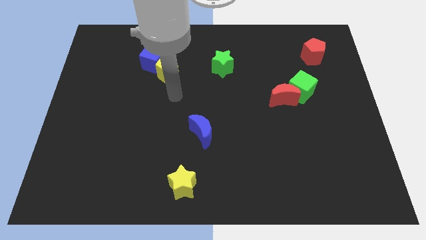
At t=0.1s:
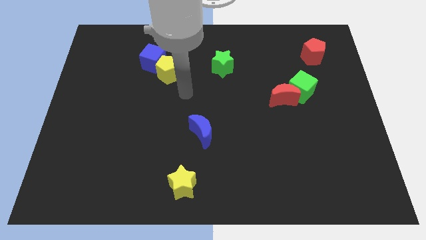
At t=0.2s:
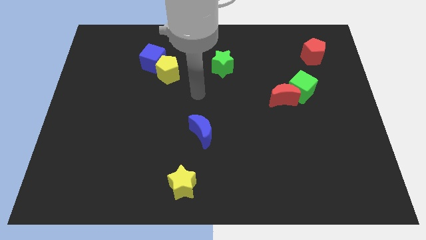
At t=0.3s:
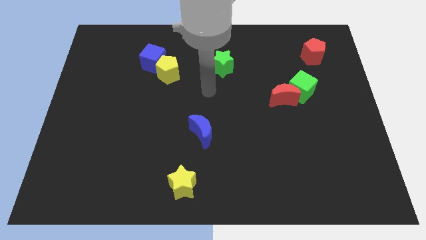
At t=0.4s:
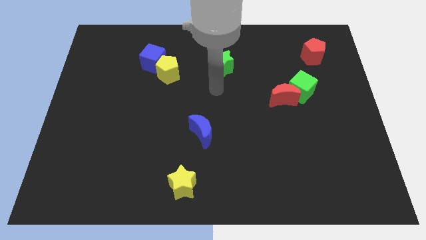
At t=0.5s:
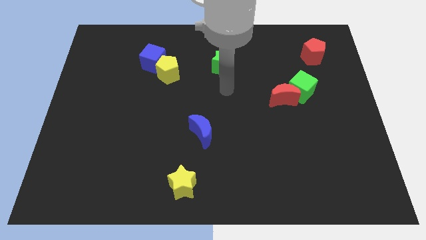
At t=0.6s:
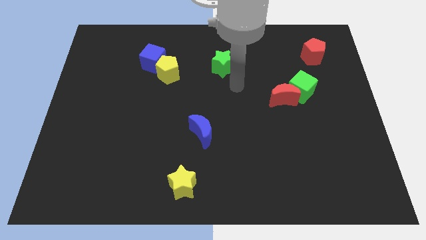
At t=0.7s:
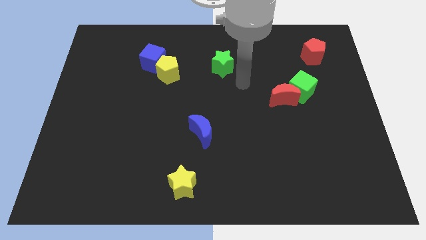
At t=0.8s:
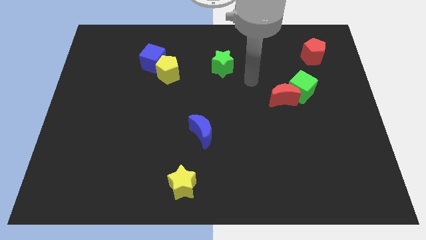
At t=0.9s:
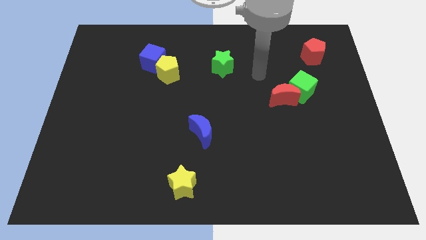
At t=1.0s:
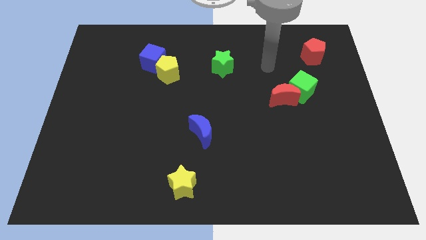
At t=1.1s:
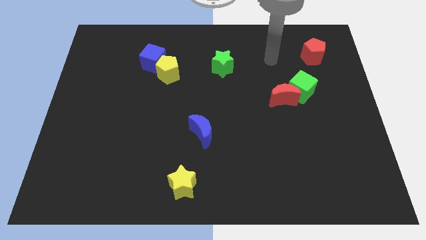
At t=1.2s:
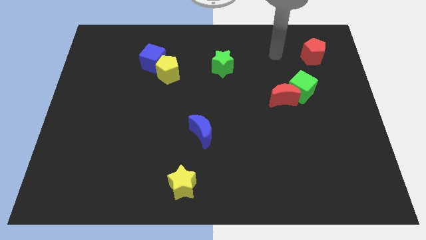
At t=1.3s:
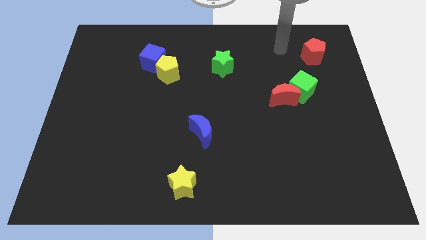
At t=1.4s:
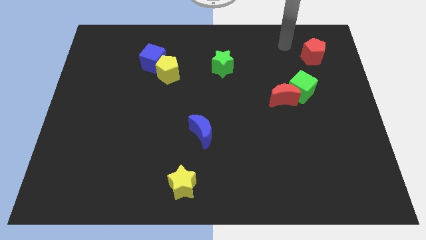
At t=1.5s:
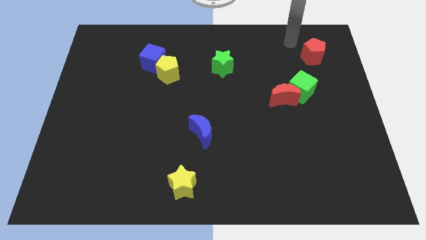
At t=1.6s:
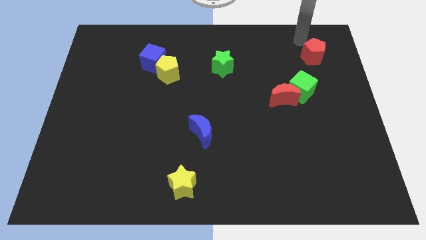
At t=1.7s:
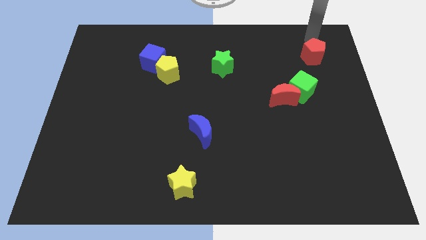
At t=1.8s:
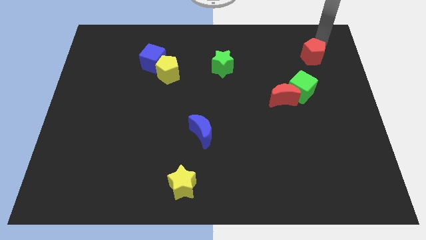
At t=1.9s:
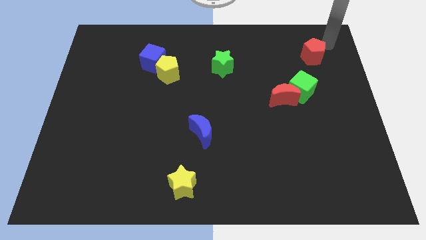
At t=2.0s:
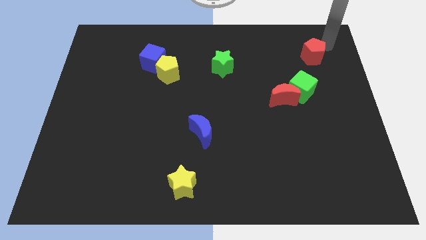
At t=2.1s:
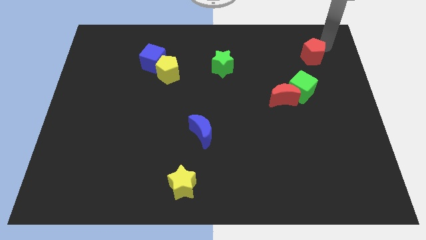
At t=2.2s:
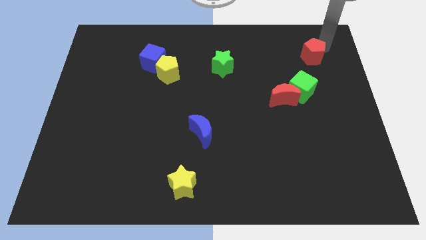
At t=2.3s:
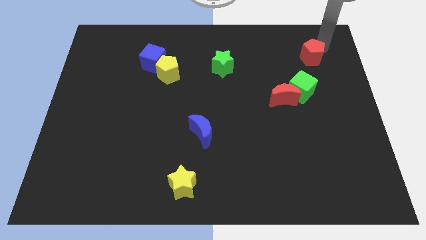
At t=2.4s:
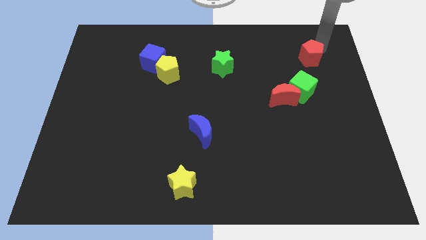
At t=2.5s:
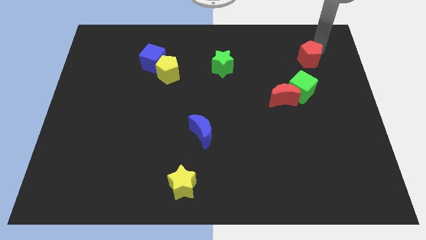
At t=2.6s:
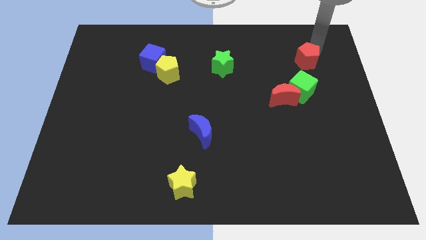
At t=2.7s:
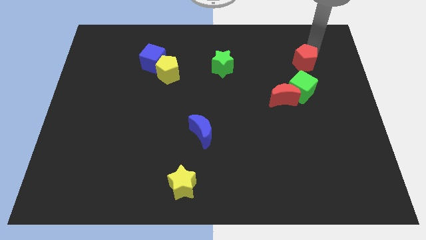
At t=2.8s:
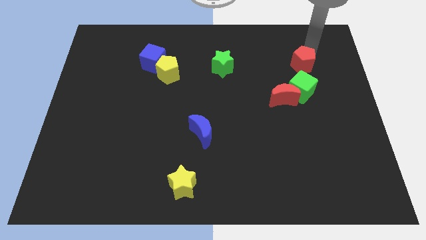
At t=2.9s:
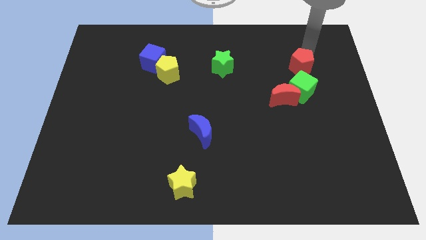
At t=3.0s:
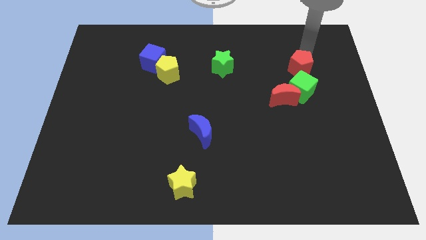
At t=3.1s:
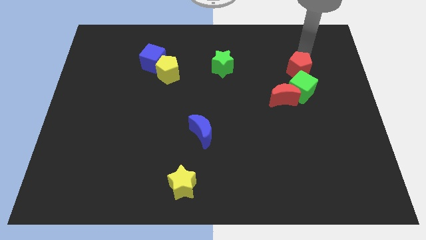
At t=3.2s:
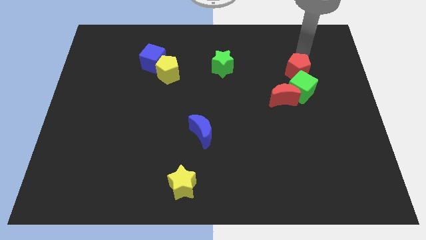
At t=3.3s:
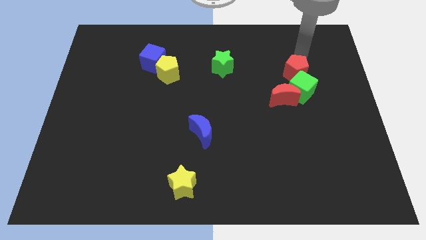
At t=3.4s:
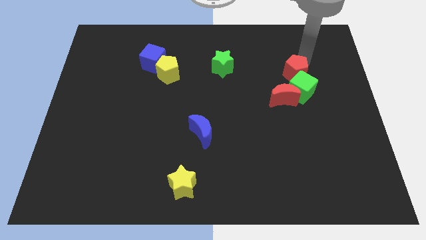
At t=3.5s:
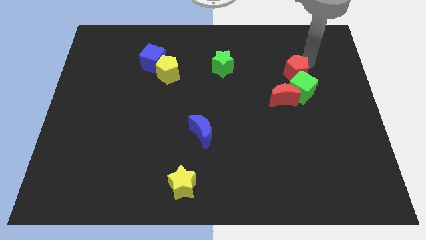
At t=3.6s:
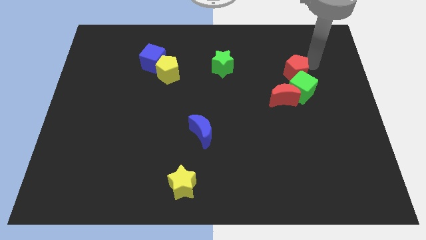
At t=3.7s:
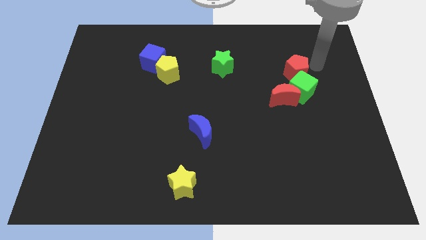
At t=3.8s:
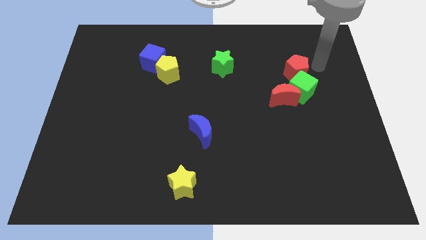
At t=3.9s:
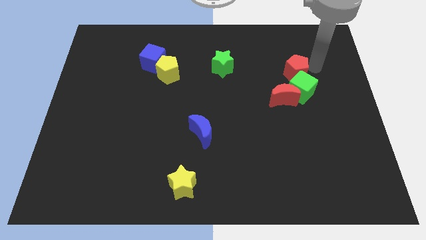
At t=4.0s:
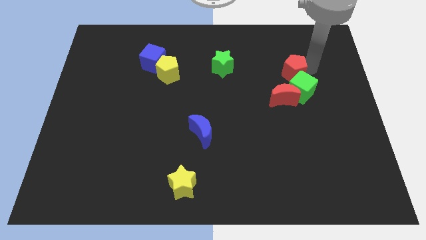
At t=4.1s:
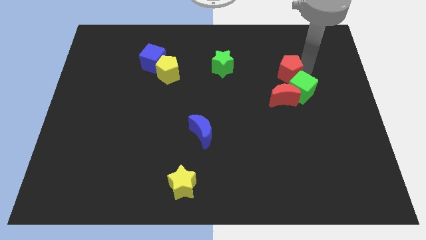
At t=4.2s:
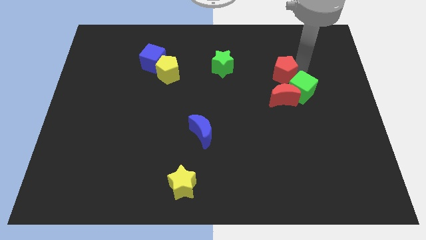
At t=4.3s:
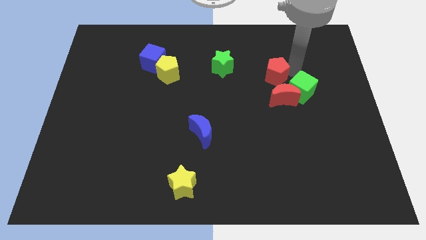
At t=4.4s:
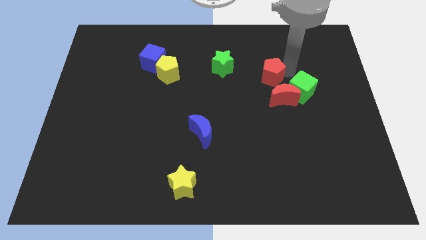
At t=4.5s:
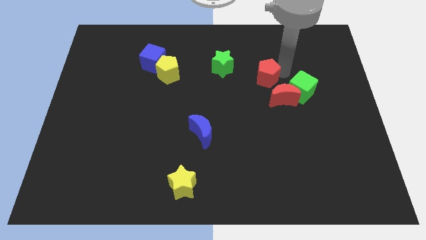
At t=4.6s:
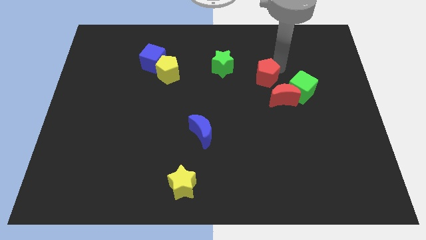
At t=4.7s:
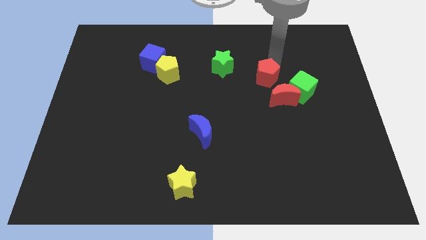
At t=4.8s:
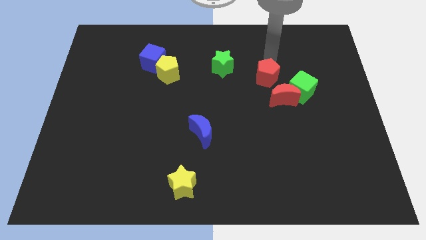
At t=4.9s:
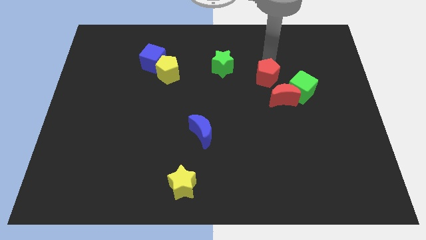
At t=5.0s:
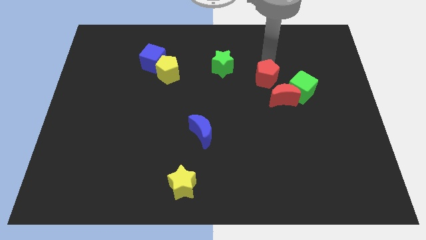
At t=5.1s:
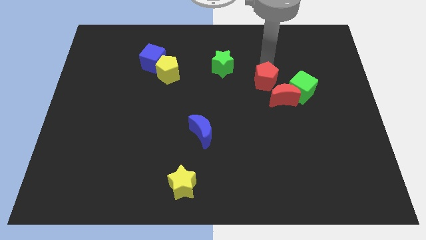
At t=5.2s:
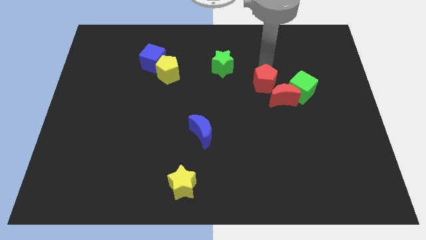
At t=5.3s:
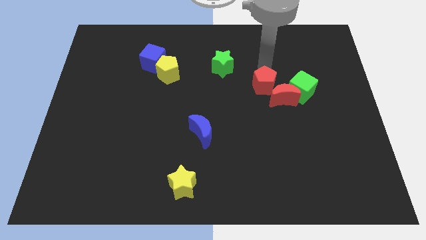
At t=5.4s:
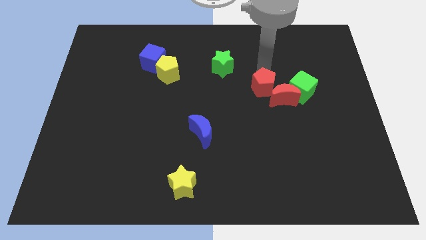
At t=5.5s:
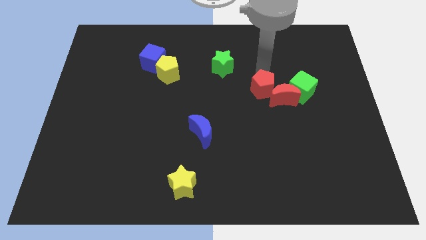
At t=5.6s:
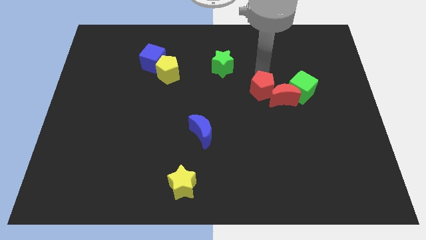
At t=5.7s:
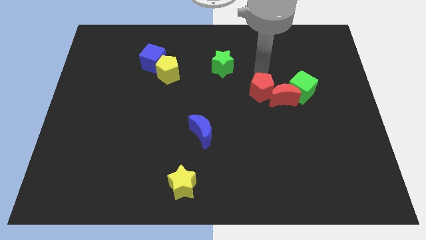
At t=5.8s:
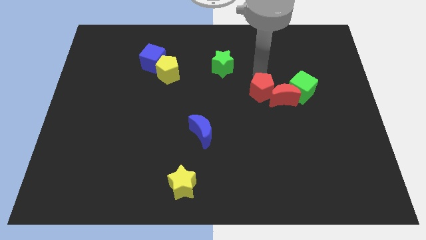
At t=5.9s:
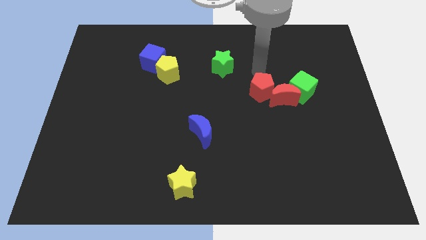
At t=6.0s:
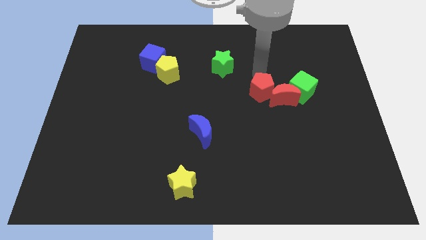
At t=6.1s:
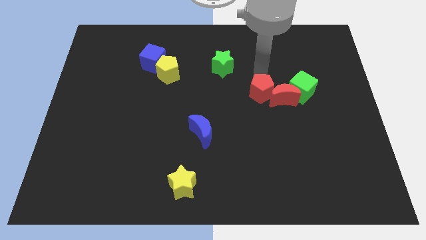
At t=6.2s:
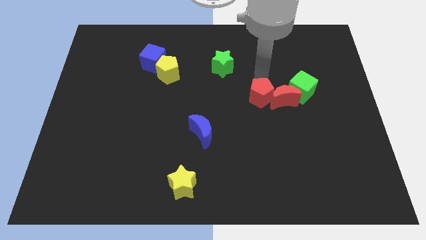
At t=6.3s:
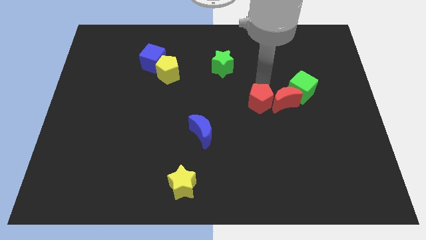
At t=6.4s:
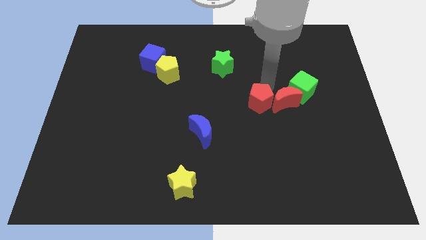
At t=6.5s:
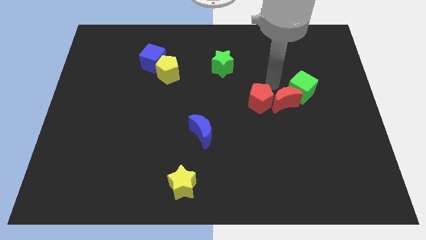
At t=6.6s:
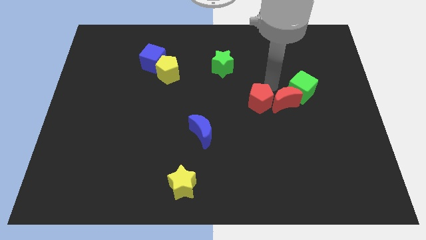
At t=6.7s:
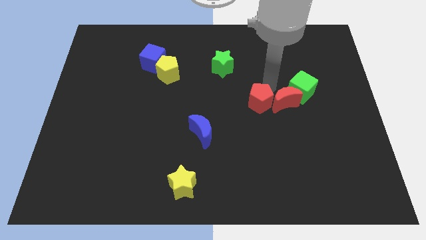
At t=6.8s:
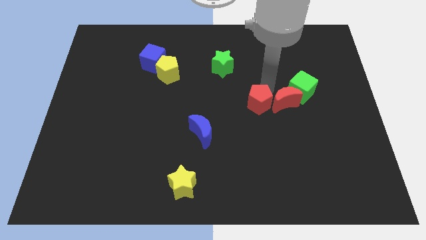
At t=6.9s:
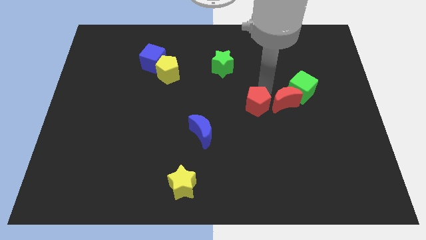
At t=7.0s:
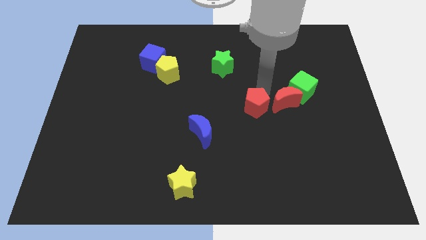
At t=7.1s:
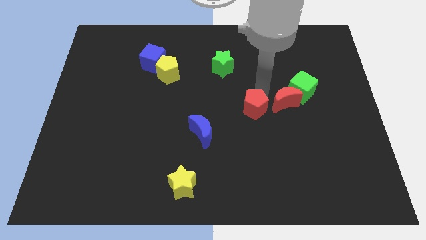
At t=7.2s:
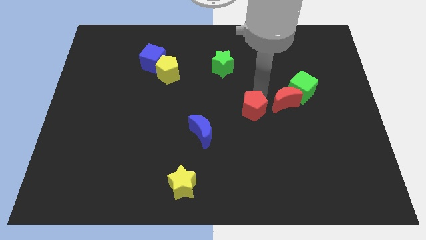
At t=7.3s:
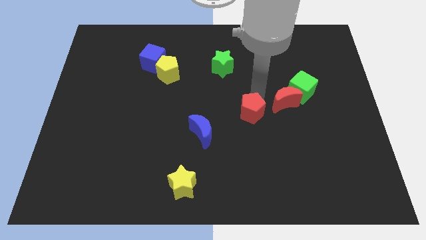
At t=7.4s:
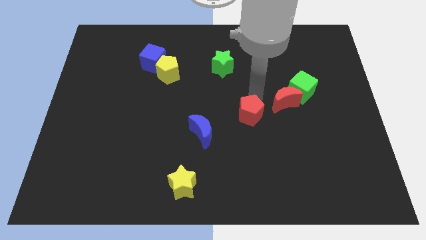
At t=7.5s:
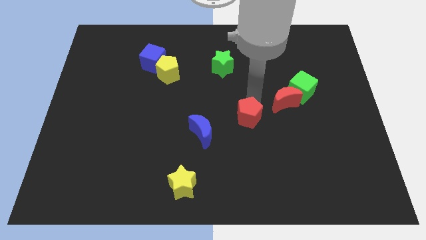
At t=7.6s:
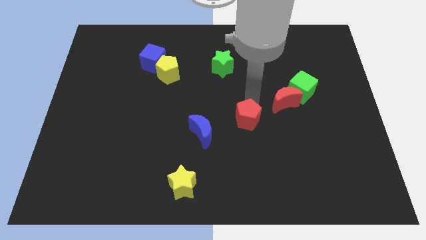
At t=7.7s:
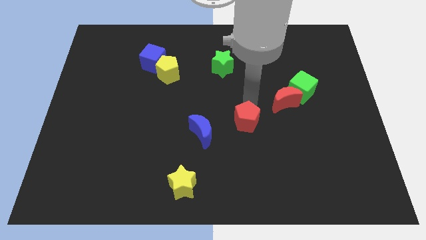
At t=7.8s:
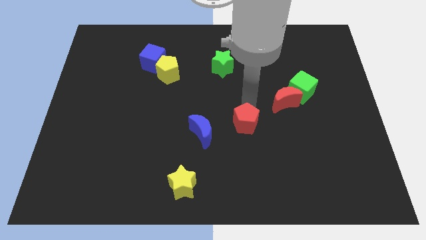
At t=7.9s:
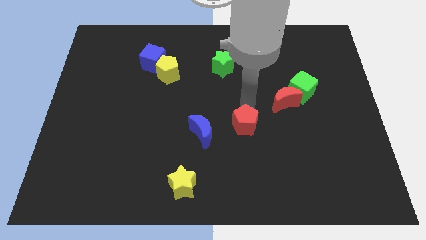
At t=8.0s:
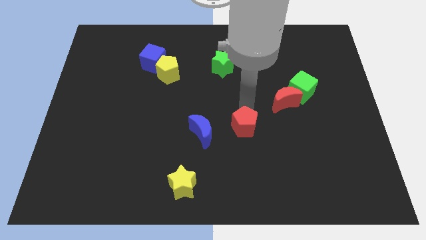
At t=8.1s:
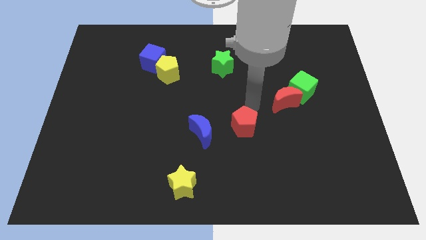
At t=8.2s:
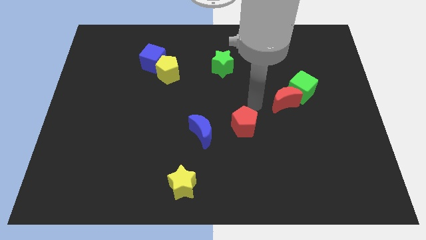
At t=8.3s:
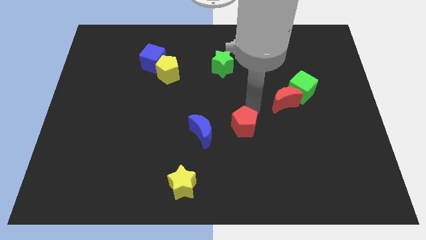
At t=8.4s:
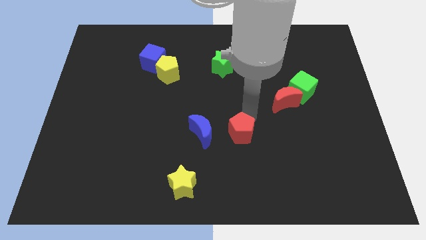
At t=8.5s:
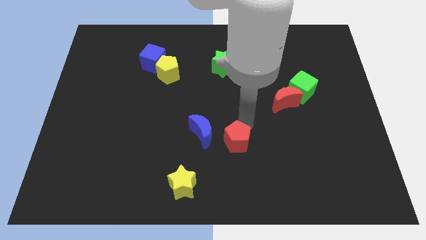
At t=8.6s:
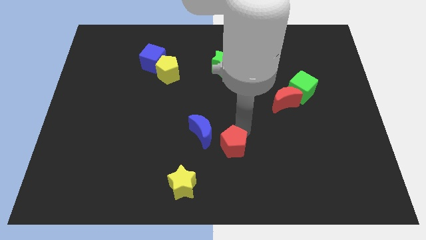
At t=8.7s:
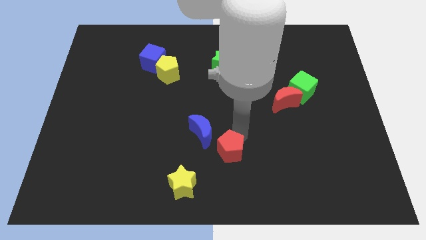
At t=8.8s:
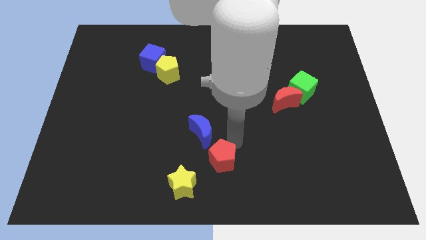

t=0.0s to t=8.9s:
move the red pentagon to the bottom
